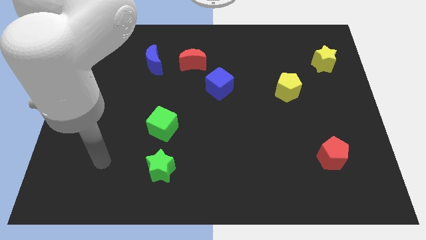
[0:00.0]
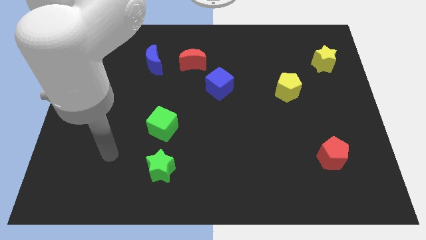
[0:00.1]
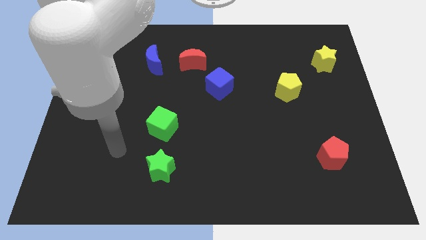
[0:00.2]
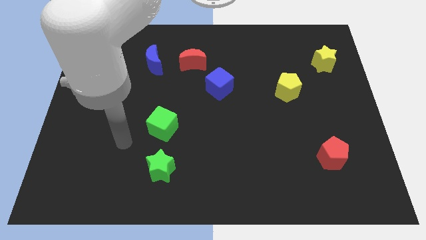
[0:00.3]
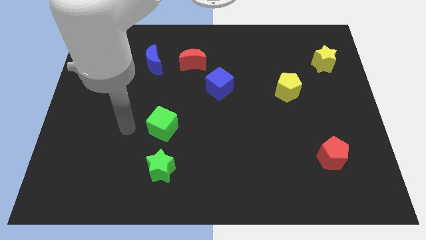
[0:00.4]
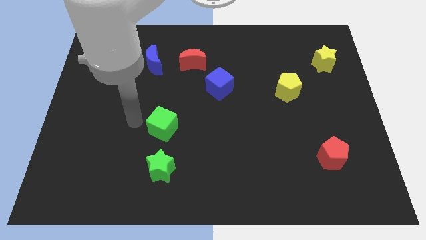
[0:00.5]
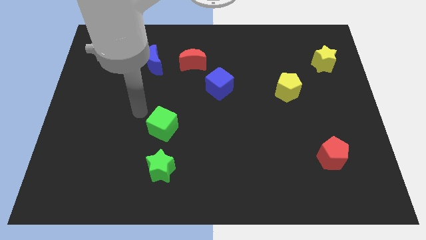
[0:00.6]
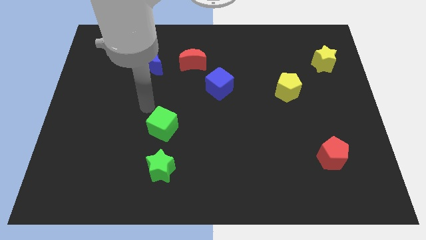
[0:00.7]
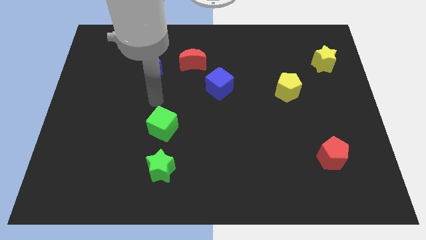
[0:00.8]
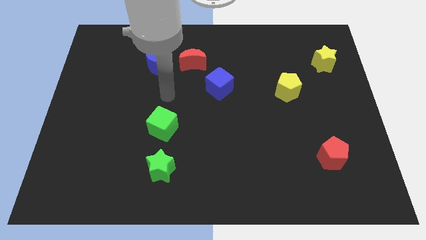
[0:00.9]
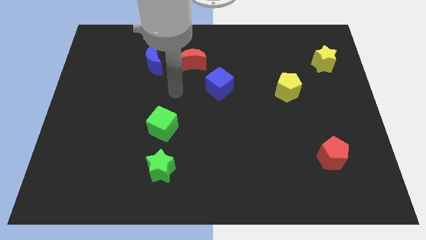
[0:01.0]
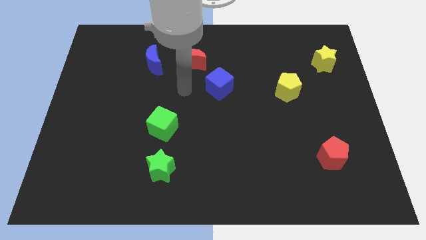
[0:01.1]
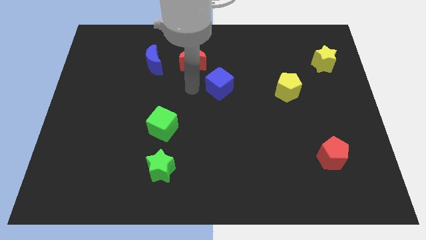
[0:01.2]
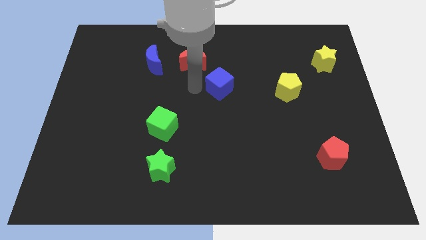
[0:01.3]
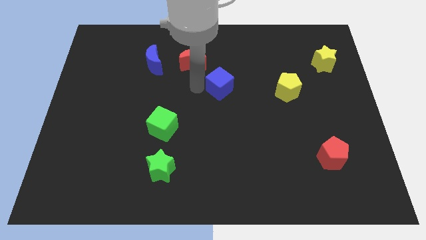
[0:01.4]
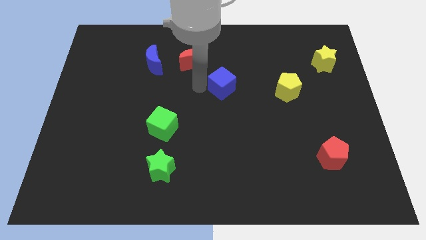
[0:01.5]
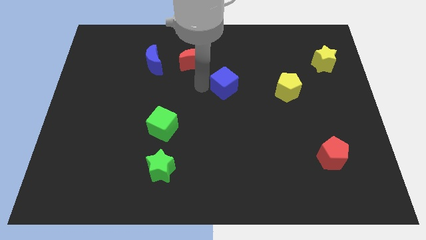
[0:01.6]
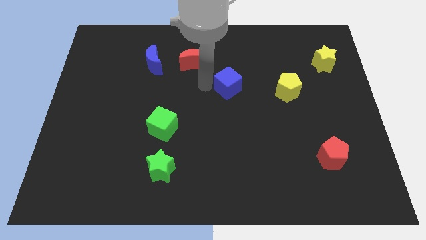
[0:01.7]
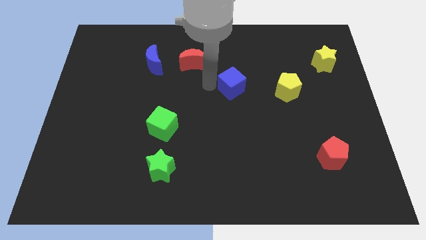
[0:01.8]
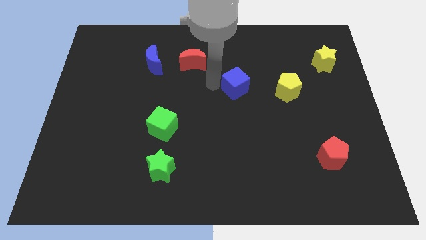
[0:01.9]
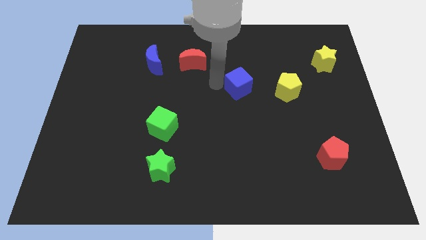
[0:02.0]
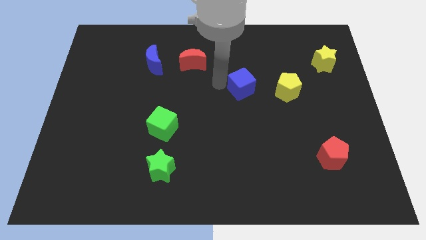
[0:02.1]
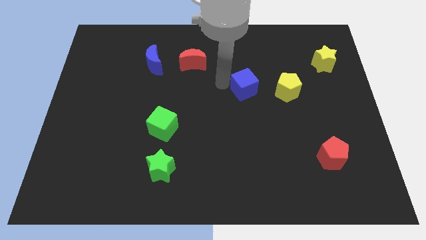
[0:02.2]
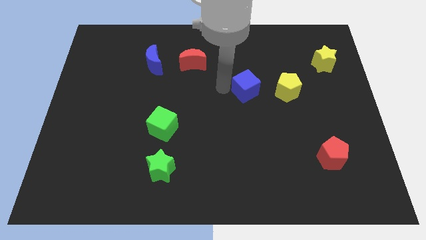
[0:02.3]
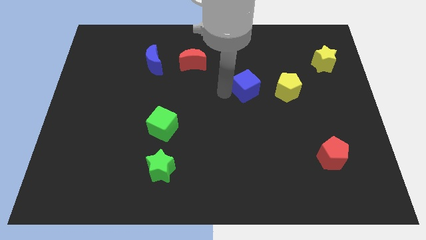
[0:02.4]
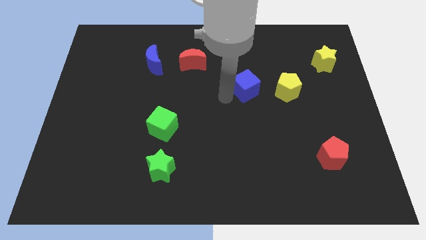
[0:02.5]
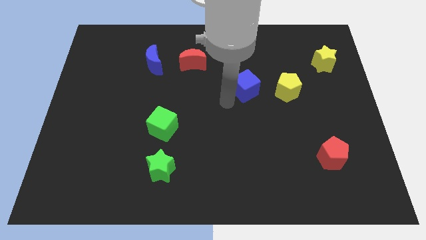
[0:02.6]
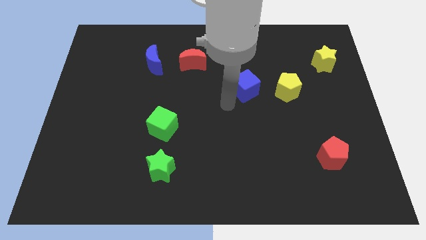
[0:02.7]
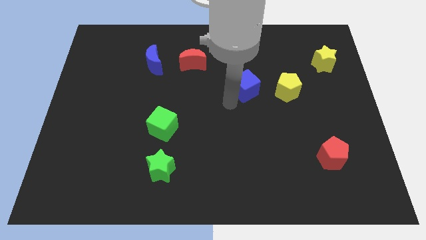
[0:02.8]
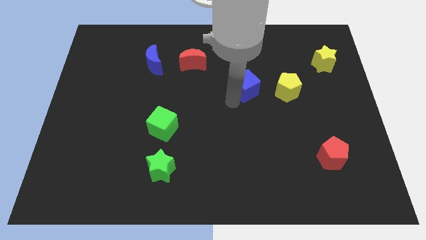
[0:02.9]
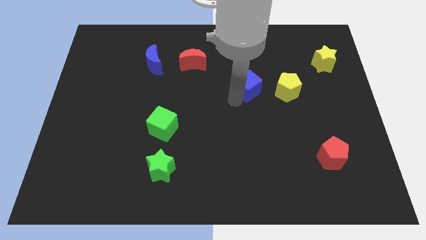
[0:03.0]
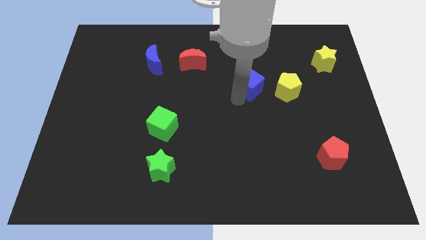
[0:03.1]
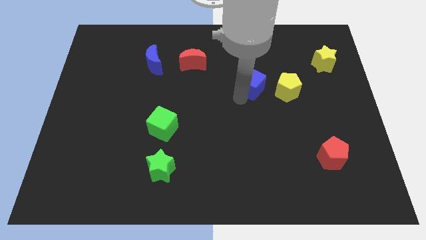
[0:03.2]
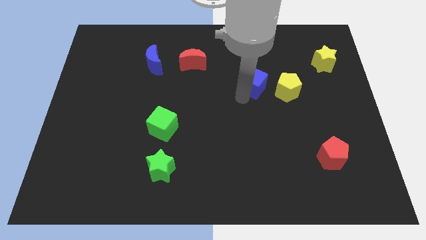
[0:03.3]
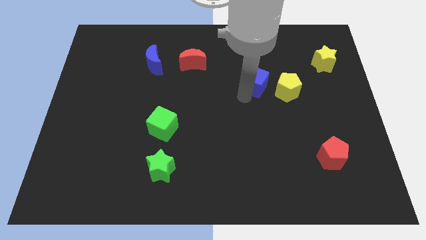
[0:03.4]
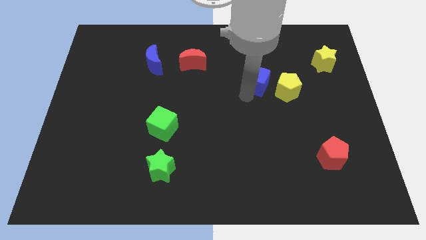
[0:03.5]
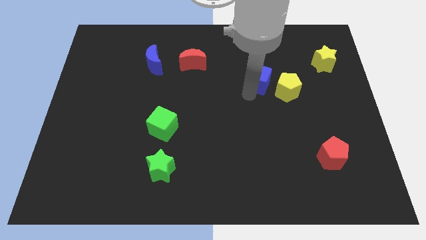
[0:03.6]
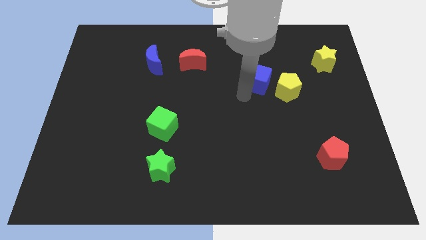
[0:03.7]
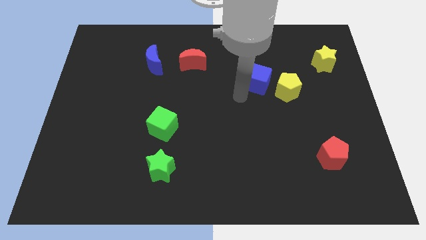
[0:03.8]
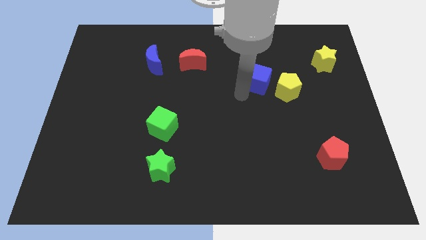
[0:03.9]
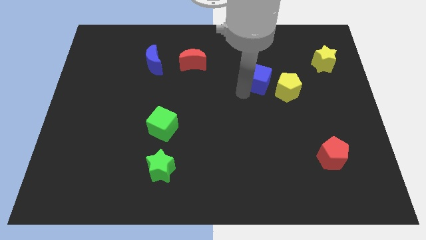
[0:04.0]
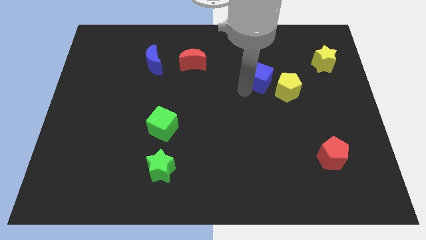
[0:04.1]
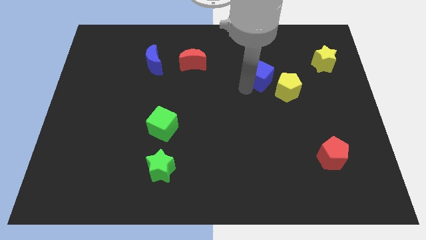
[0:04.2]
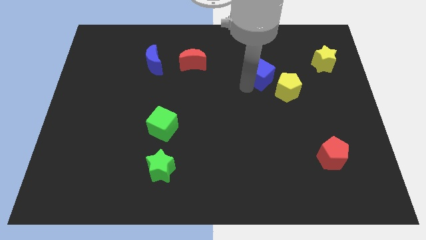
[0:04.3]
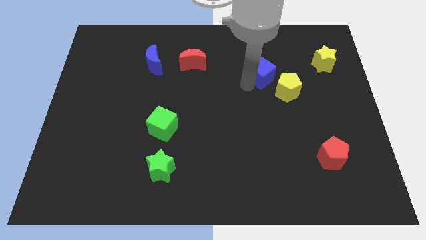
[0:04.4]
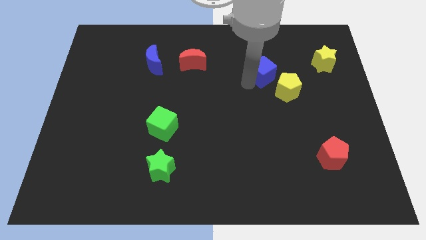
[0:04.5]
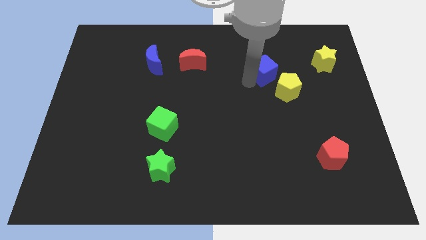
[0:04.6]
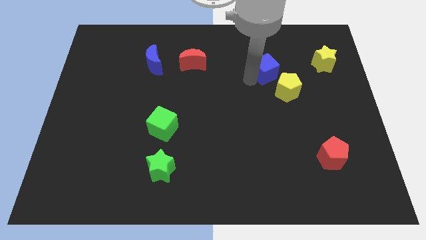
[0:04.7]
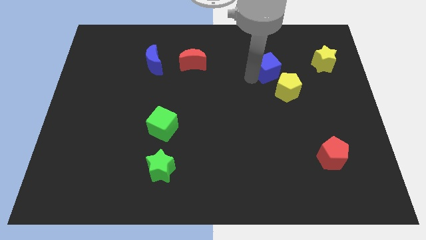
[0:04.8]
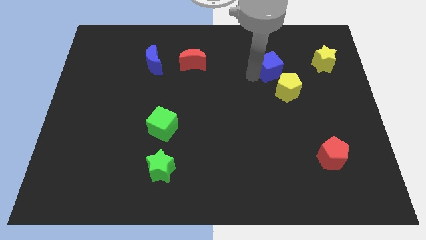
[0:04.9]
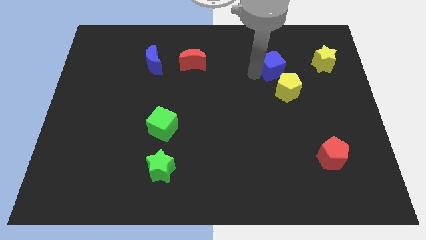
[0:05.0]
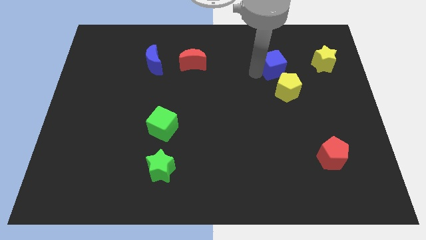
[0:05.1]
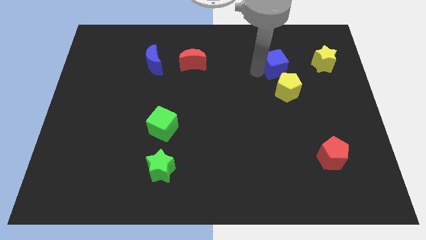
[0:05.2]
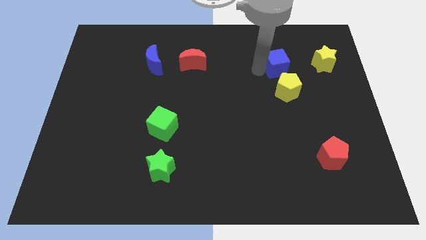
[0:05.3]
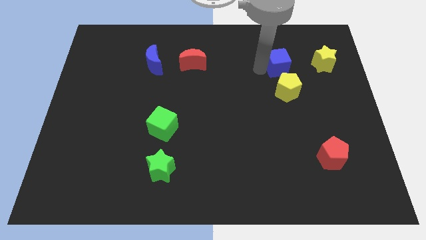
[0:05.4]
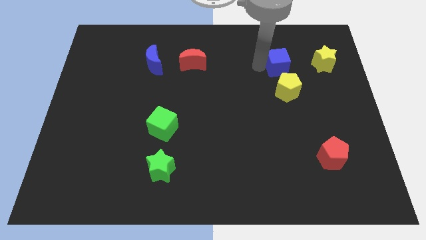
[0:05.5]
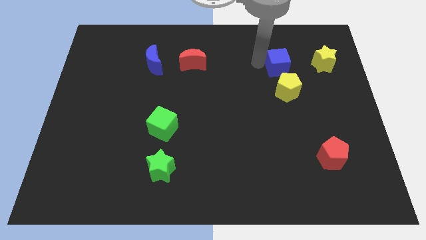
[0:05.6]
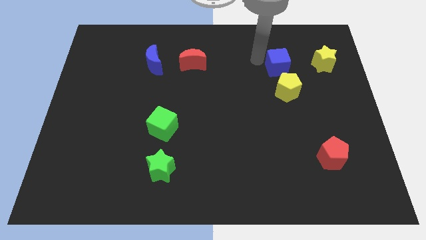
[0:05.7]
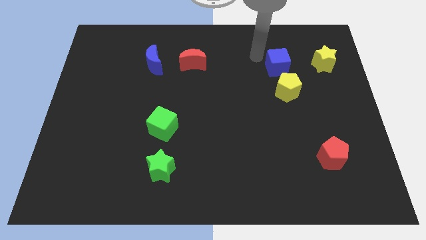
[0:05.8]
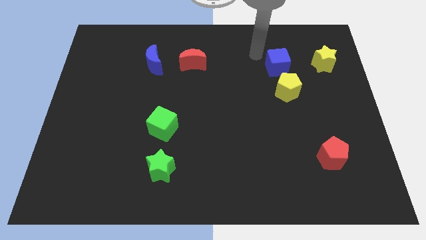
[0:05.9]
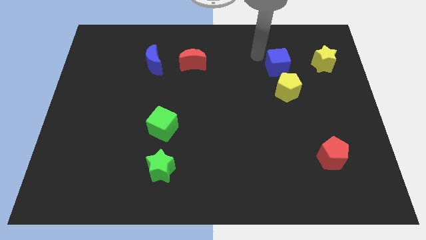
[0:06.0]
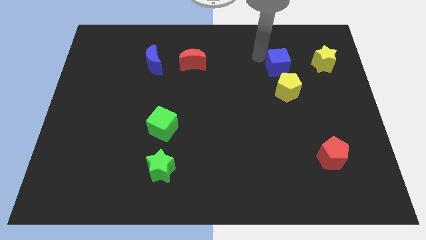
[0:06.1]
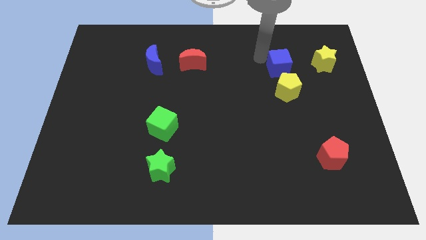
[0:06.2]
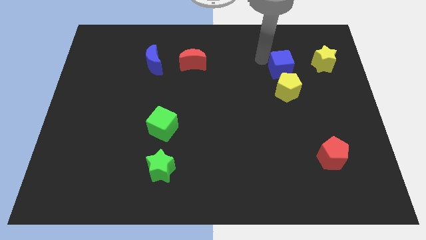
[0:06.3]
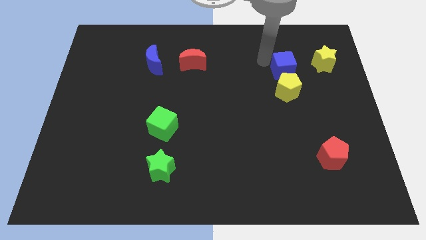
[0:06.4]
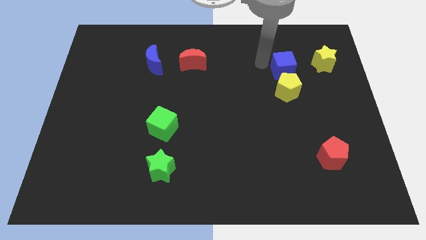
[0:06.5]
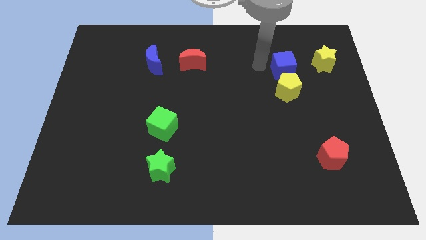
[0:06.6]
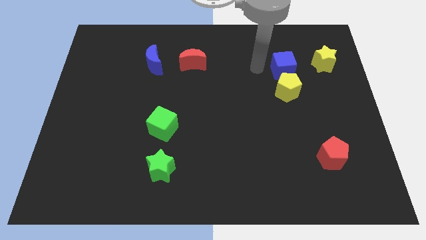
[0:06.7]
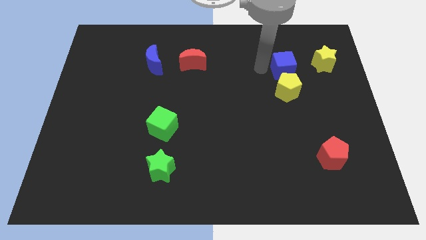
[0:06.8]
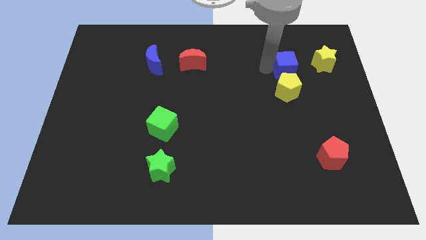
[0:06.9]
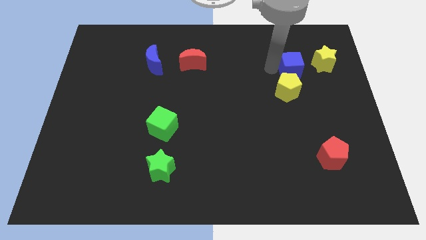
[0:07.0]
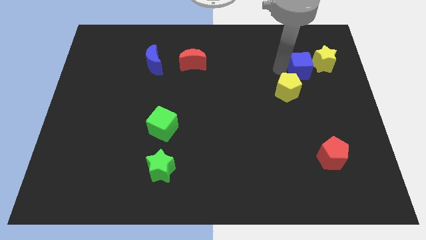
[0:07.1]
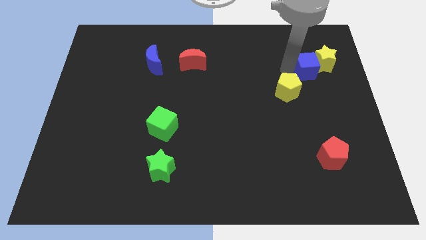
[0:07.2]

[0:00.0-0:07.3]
slide the blue cube close to the yellow star

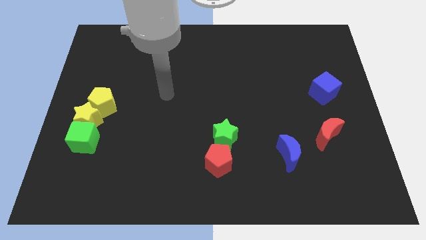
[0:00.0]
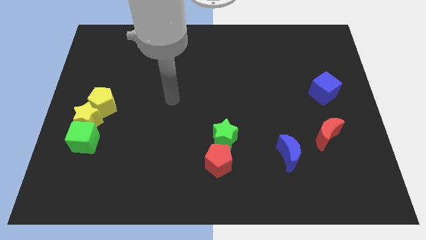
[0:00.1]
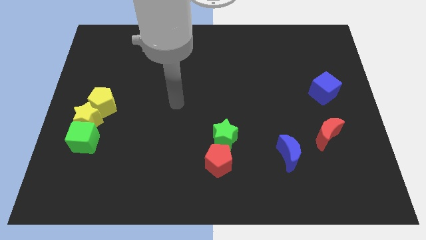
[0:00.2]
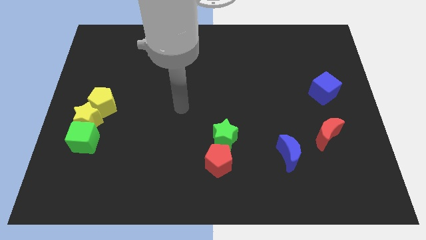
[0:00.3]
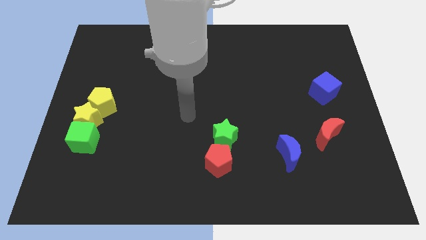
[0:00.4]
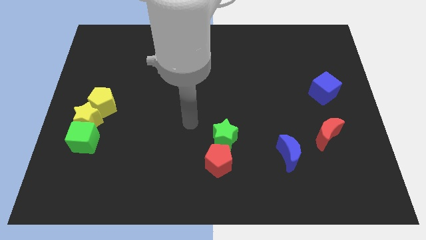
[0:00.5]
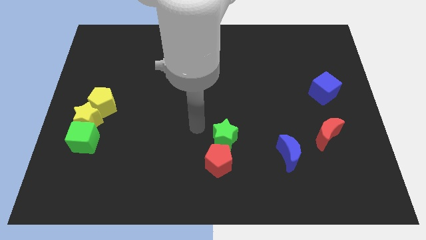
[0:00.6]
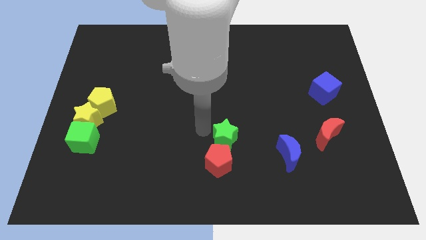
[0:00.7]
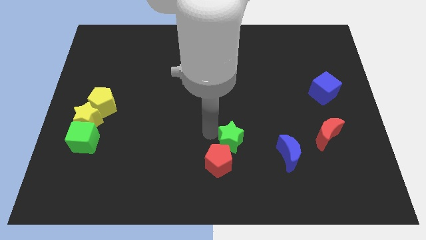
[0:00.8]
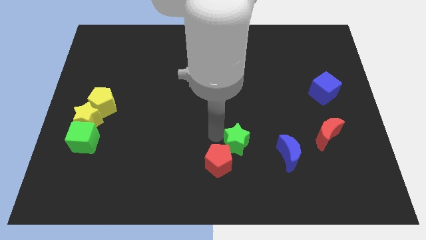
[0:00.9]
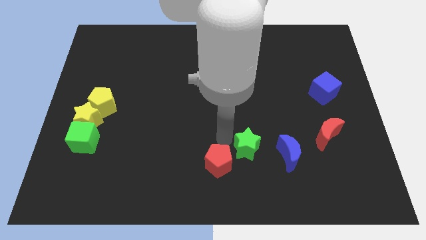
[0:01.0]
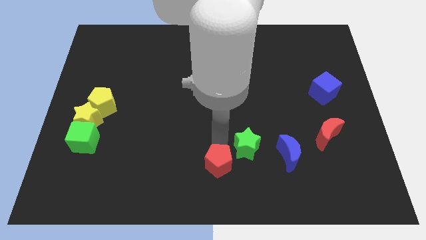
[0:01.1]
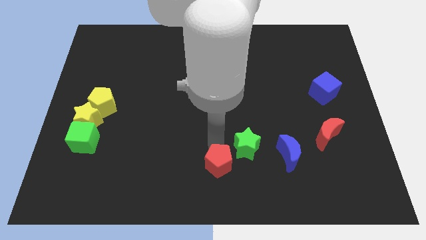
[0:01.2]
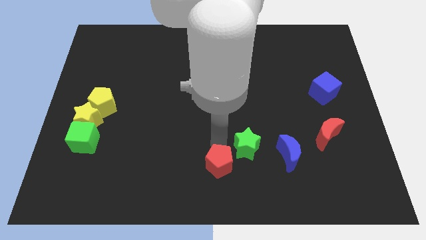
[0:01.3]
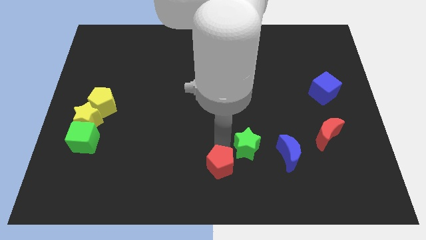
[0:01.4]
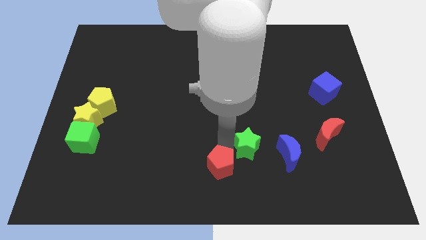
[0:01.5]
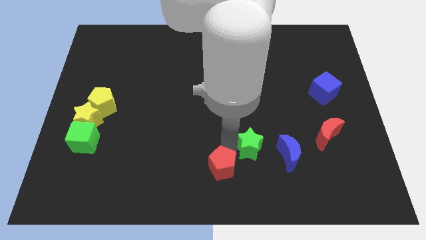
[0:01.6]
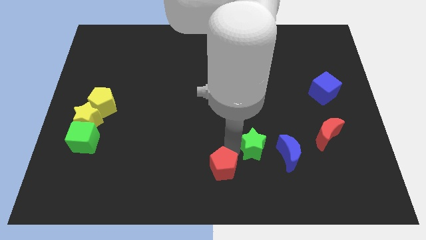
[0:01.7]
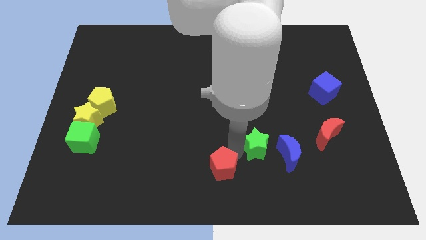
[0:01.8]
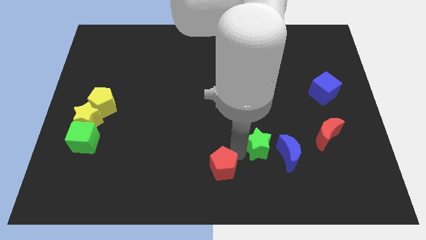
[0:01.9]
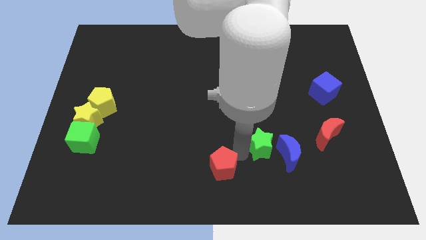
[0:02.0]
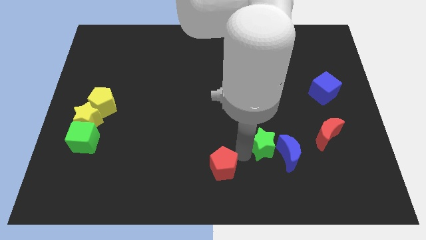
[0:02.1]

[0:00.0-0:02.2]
put the green star next to the blue moon
